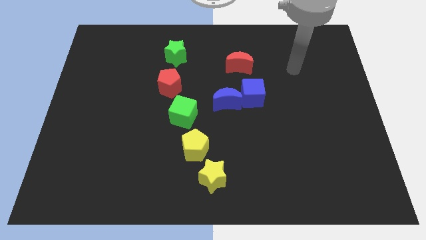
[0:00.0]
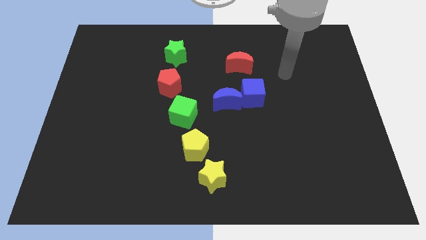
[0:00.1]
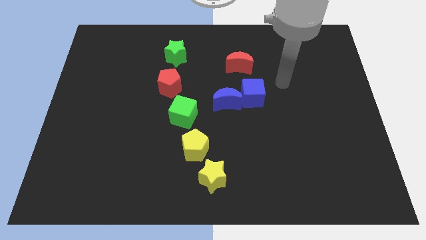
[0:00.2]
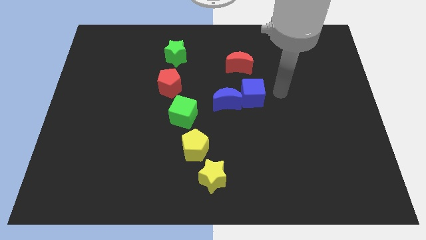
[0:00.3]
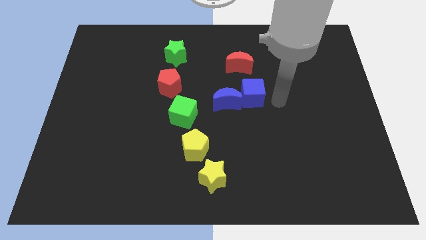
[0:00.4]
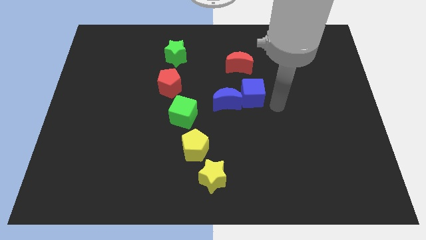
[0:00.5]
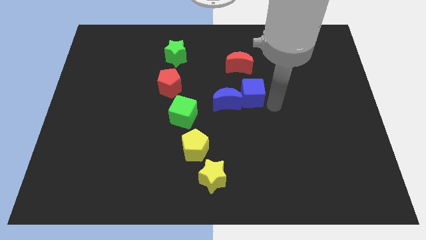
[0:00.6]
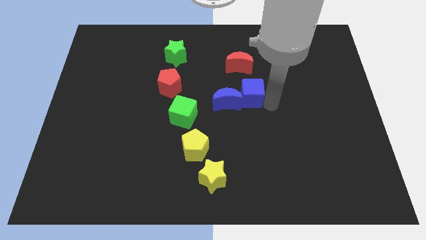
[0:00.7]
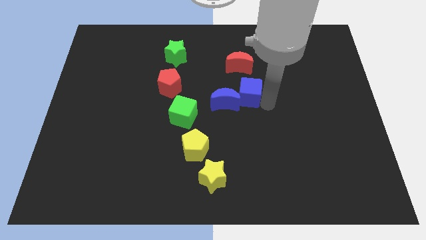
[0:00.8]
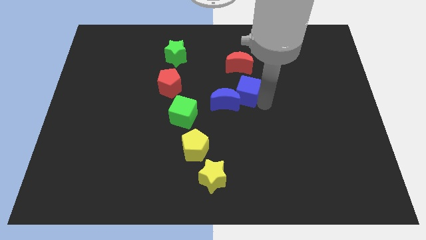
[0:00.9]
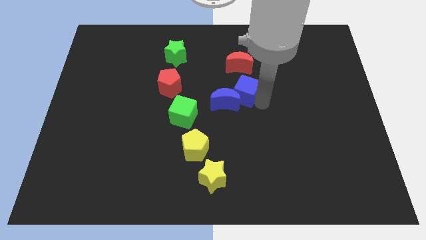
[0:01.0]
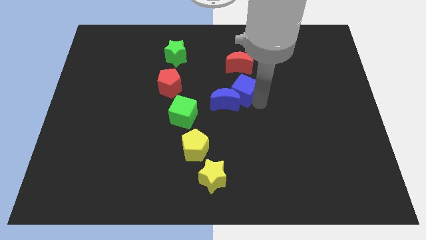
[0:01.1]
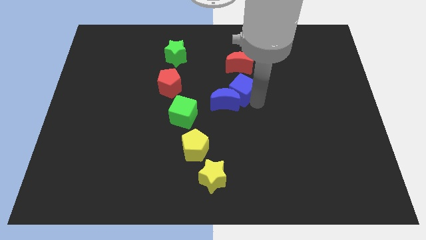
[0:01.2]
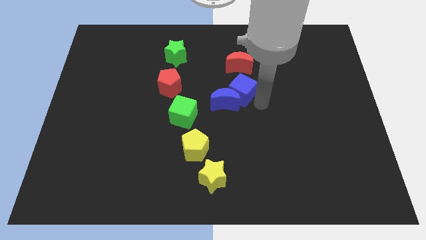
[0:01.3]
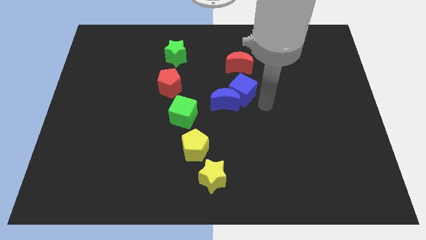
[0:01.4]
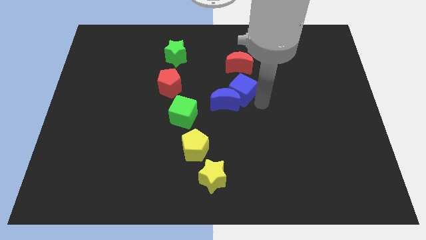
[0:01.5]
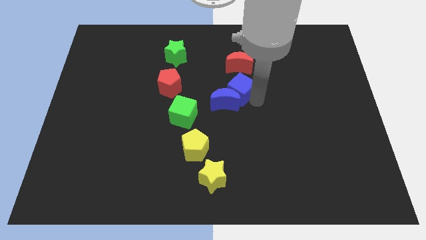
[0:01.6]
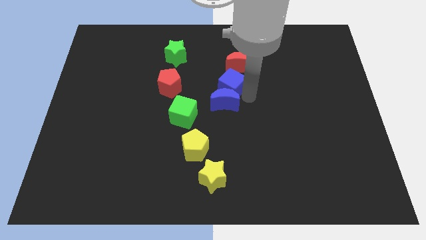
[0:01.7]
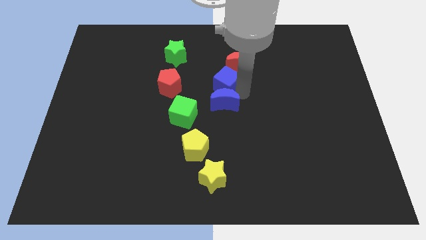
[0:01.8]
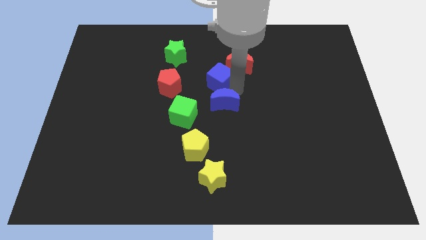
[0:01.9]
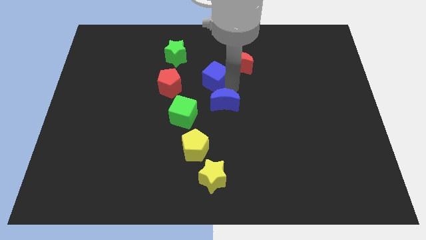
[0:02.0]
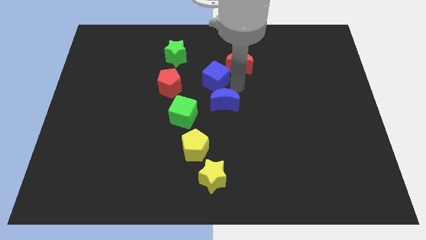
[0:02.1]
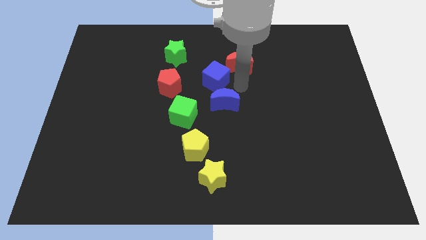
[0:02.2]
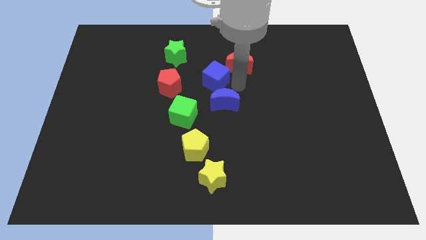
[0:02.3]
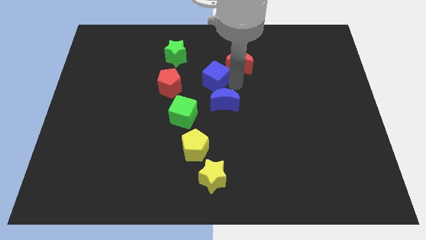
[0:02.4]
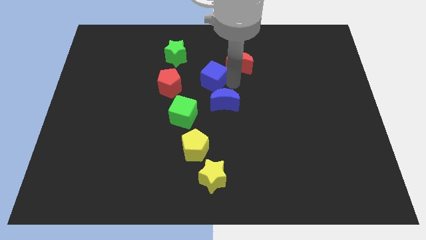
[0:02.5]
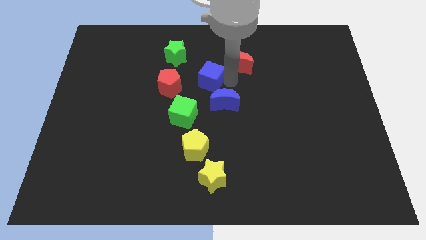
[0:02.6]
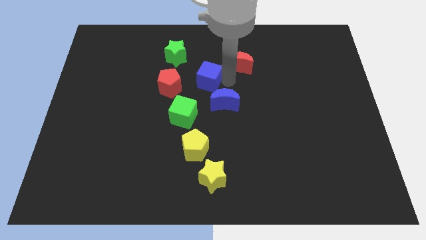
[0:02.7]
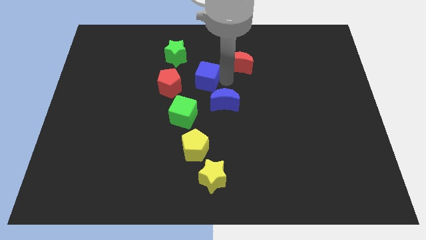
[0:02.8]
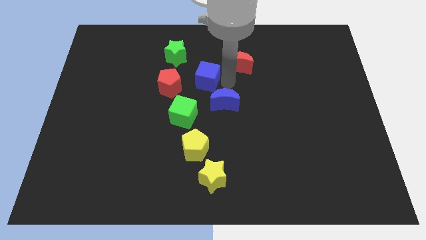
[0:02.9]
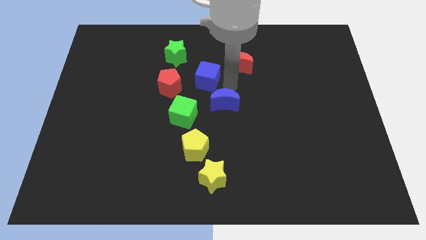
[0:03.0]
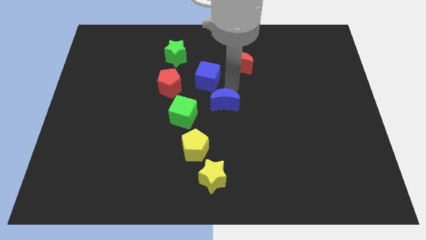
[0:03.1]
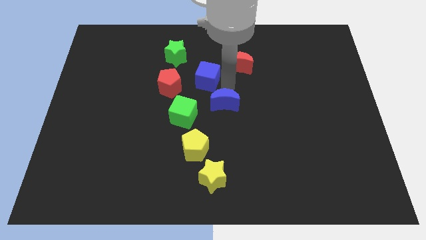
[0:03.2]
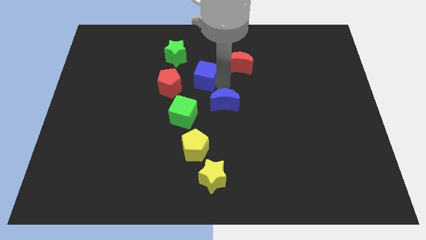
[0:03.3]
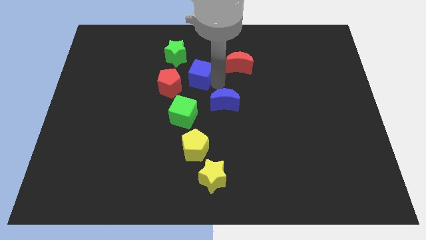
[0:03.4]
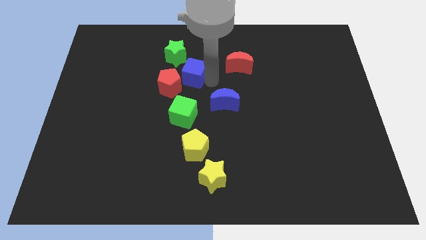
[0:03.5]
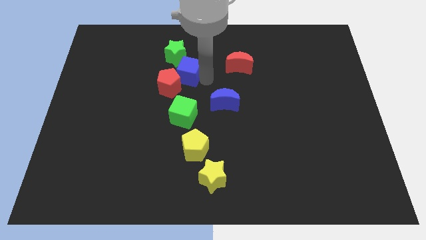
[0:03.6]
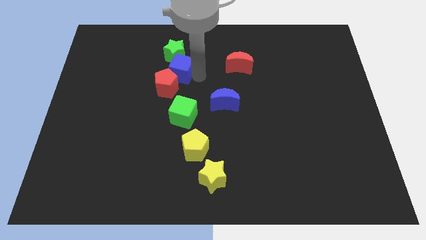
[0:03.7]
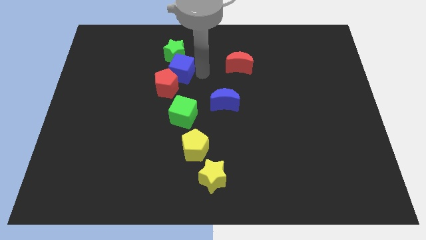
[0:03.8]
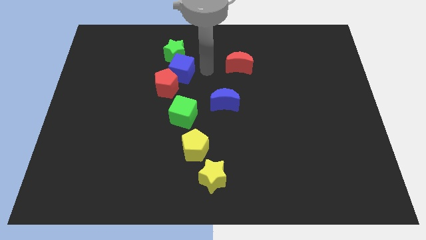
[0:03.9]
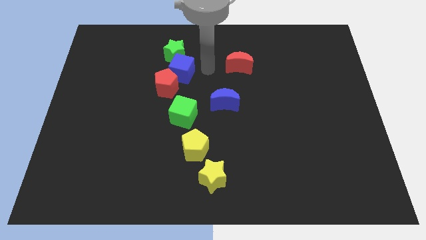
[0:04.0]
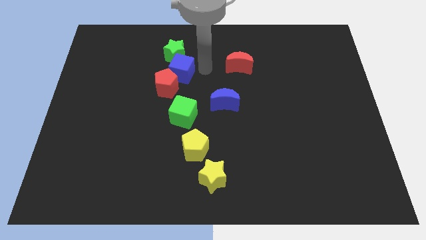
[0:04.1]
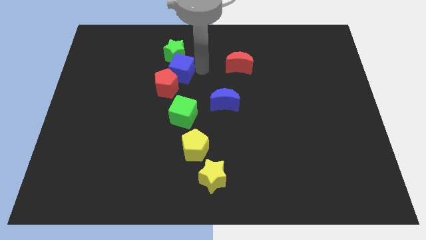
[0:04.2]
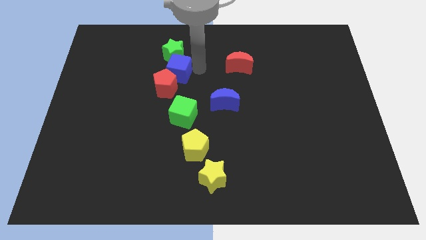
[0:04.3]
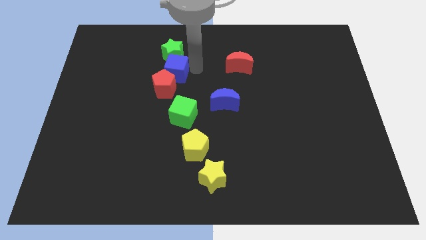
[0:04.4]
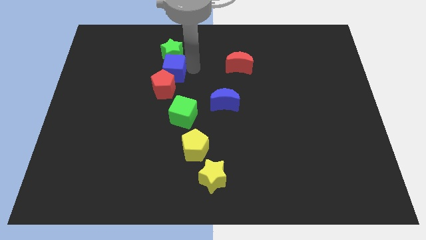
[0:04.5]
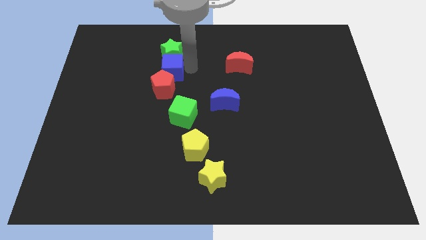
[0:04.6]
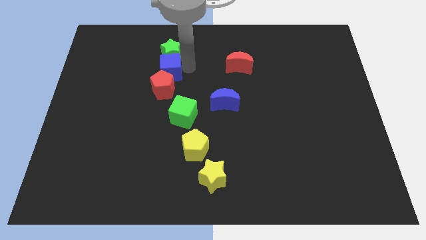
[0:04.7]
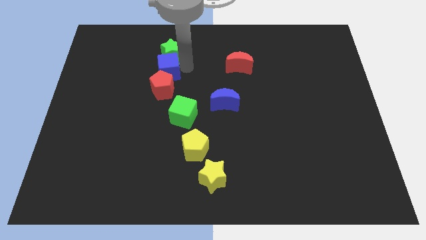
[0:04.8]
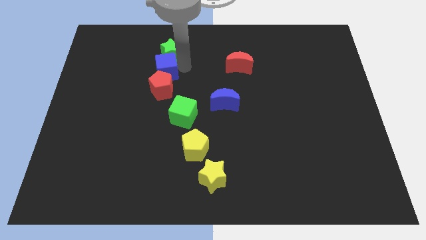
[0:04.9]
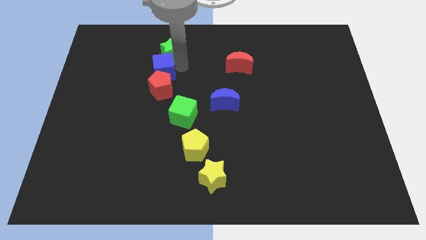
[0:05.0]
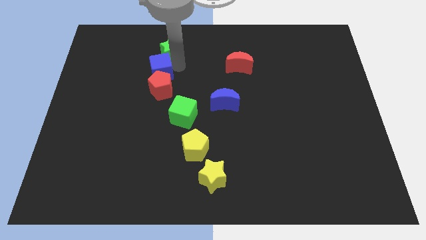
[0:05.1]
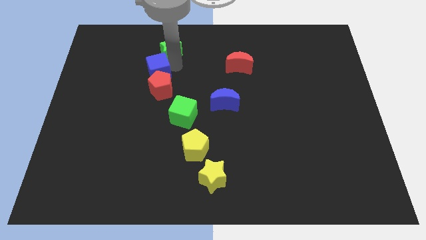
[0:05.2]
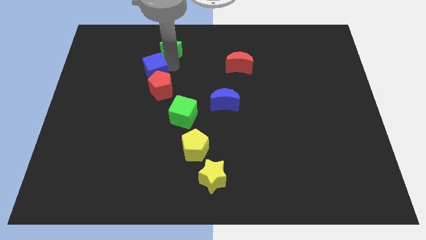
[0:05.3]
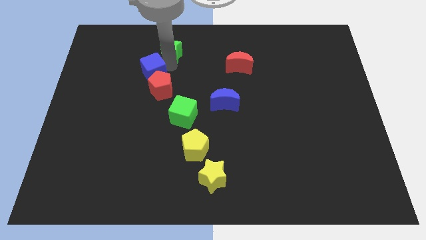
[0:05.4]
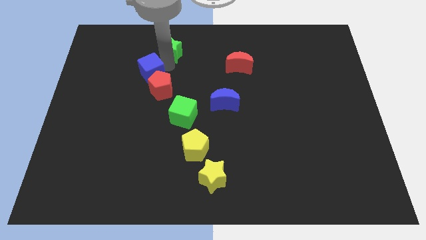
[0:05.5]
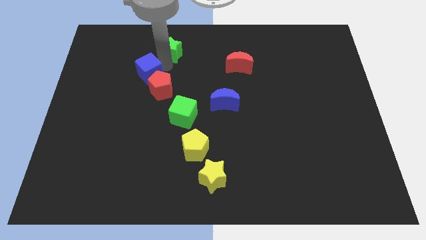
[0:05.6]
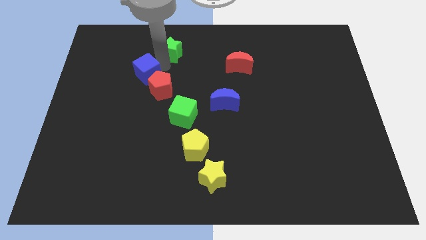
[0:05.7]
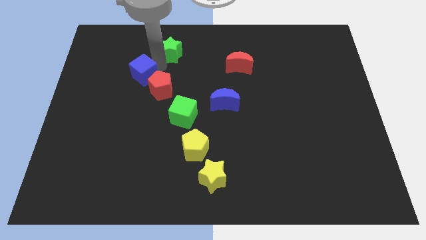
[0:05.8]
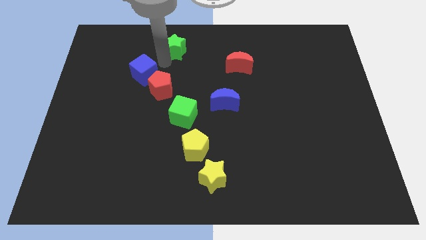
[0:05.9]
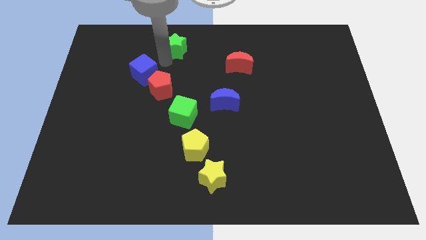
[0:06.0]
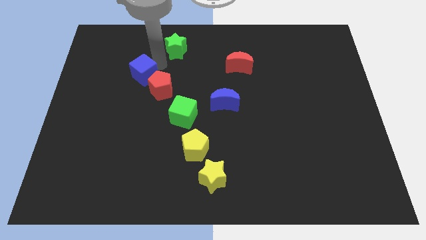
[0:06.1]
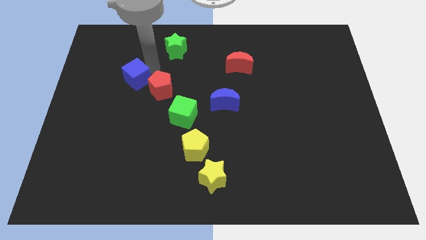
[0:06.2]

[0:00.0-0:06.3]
put the blue cube to the left of the red pentagon
